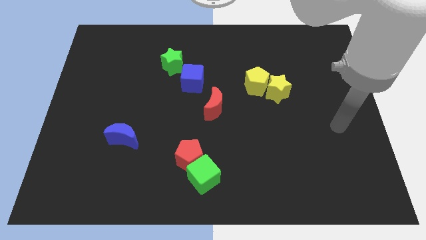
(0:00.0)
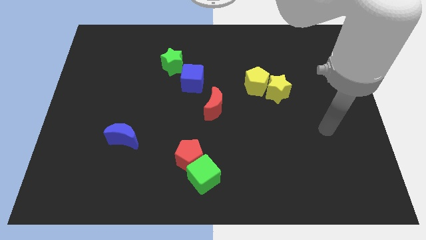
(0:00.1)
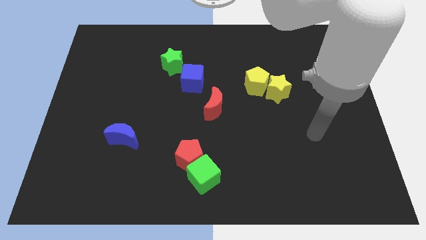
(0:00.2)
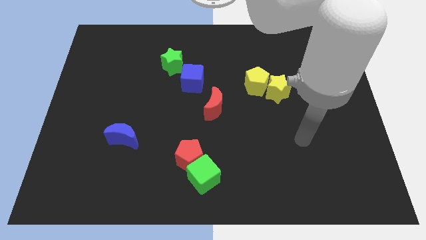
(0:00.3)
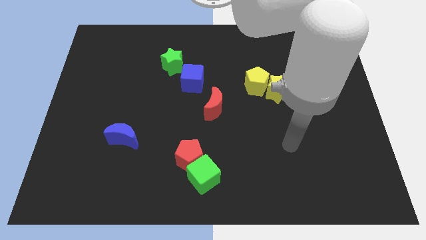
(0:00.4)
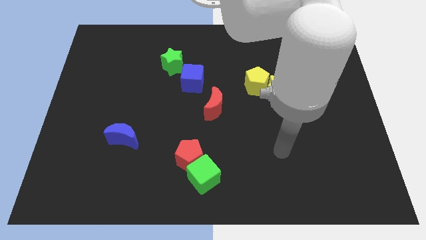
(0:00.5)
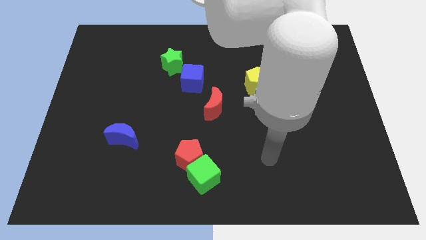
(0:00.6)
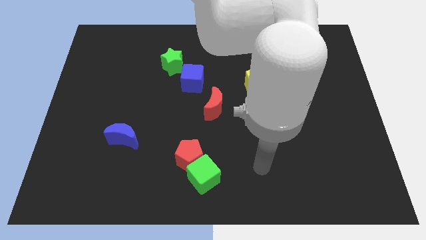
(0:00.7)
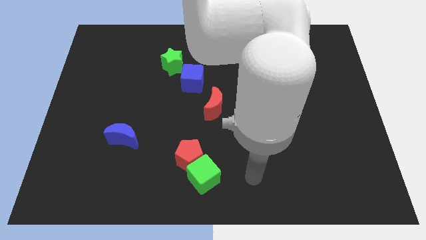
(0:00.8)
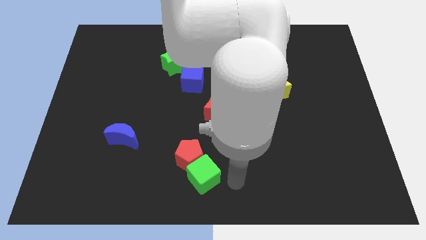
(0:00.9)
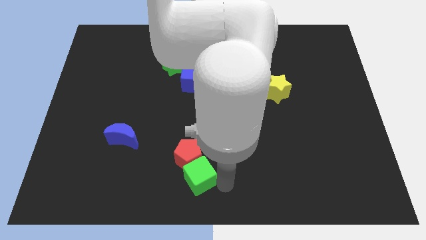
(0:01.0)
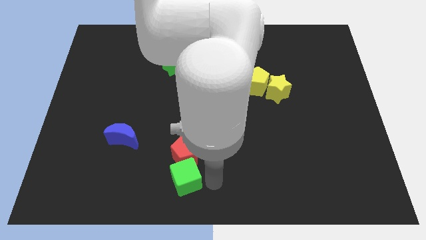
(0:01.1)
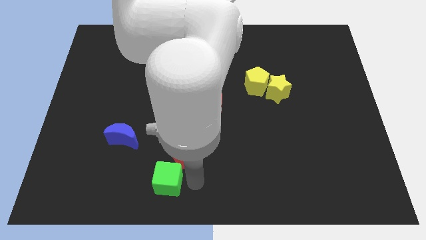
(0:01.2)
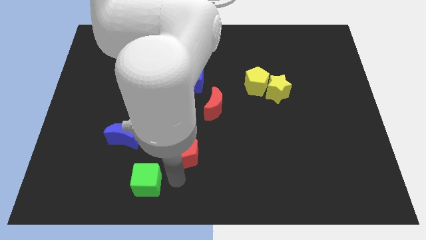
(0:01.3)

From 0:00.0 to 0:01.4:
separate the red pentagon from the green cube

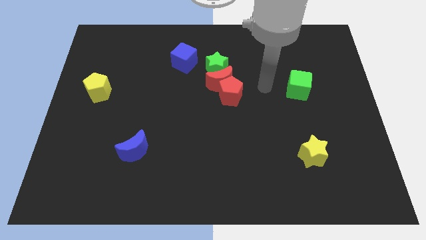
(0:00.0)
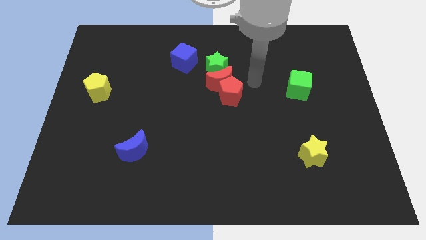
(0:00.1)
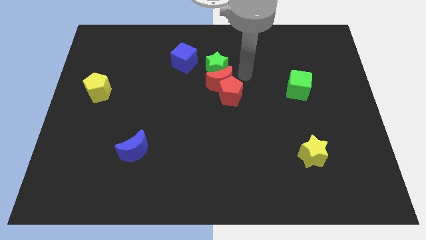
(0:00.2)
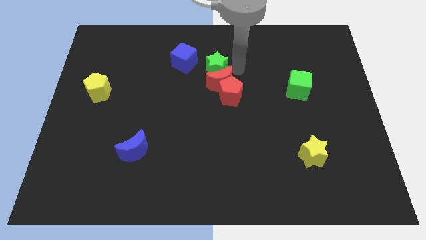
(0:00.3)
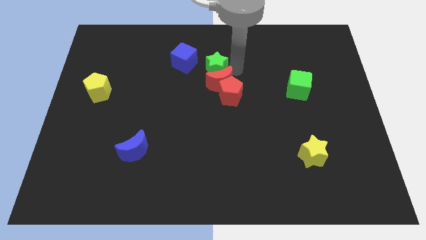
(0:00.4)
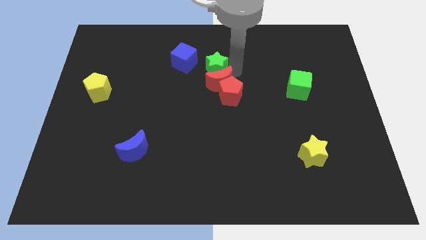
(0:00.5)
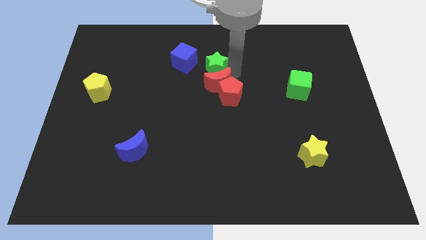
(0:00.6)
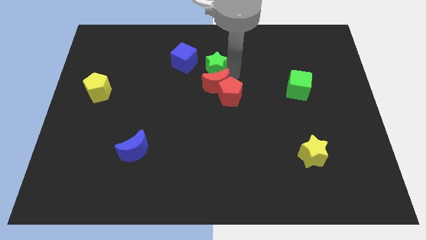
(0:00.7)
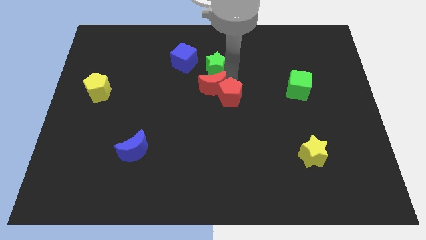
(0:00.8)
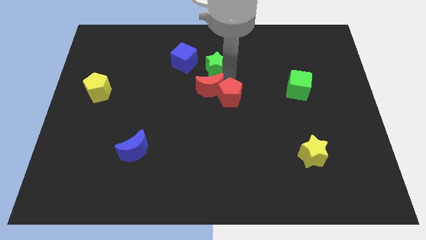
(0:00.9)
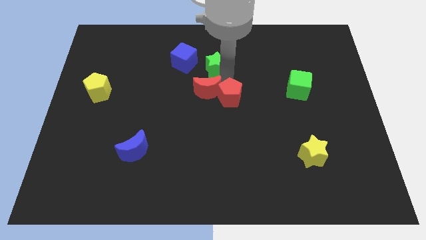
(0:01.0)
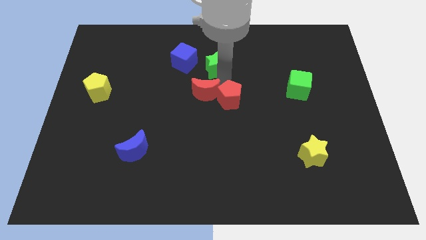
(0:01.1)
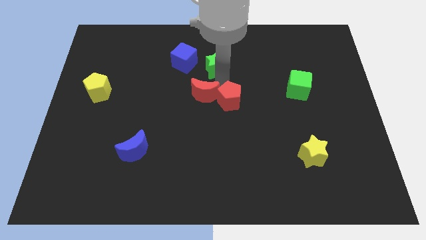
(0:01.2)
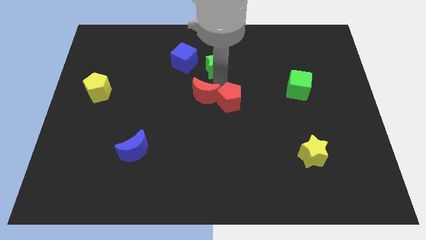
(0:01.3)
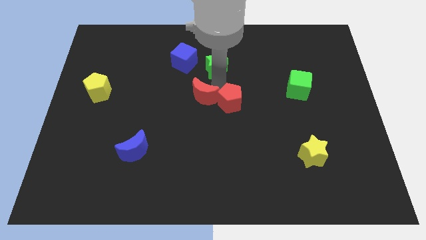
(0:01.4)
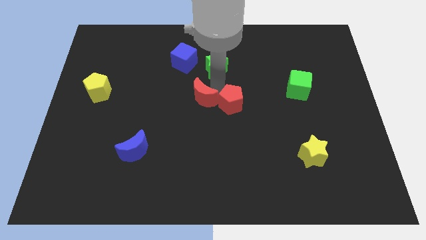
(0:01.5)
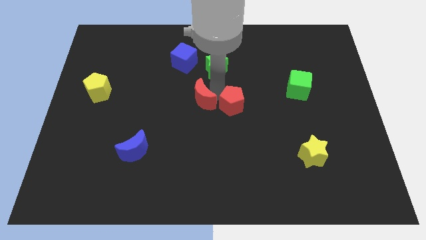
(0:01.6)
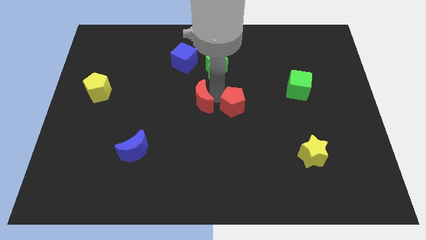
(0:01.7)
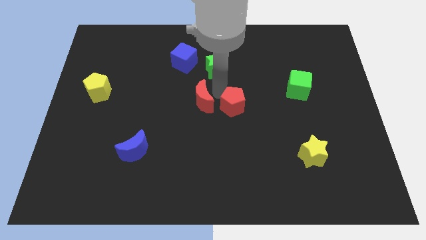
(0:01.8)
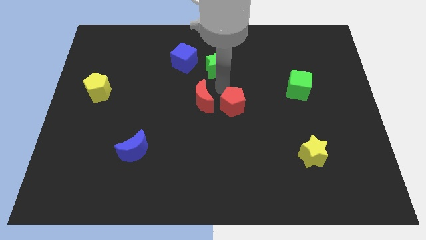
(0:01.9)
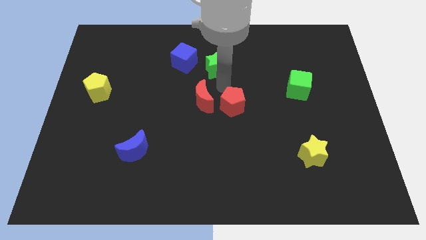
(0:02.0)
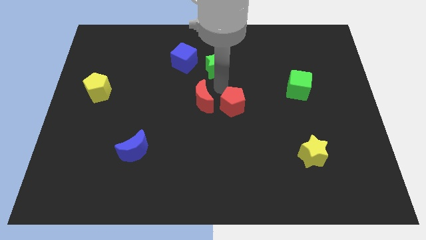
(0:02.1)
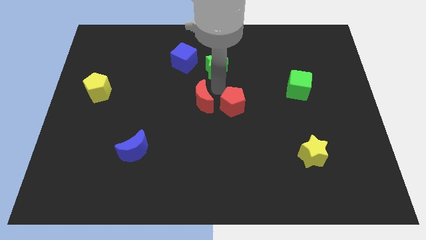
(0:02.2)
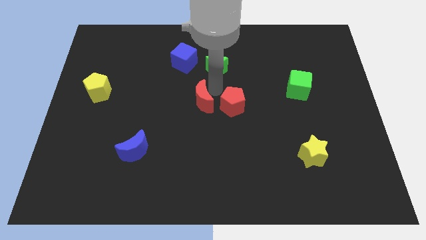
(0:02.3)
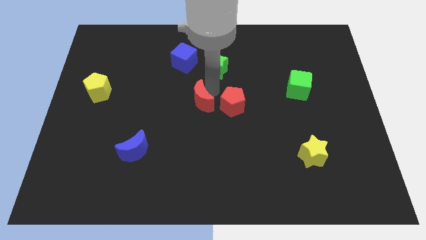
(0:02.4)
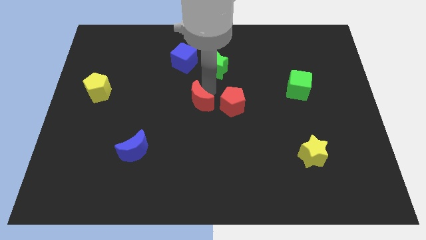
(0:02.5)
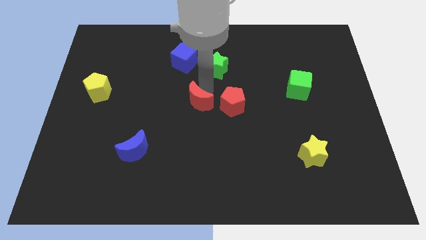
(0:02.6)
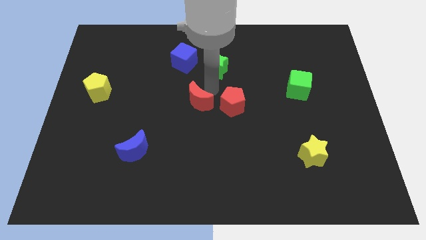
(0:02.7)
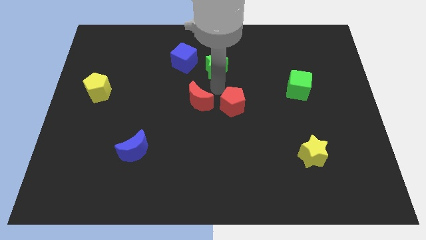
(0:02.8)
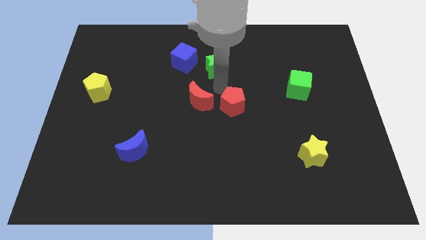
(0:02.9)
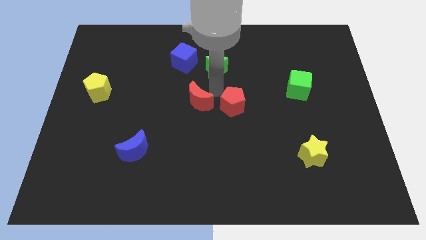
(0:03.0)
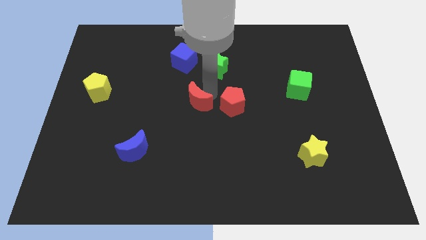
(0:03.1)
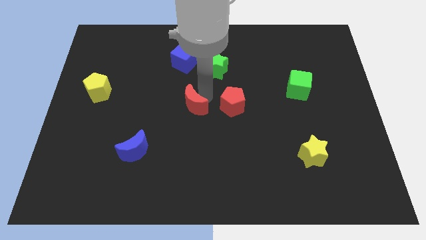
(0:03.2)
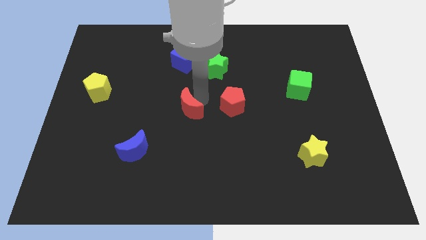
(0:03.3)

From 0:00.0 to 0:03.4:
pull the red moon apart from the red pentagon and green star

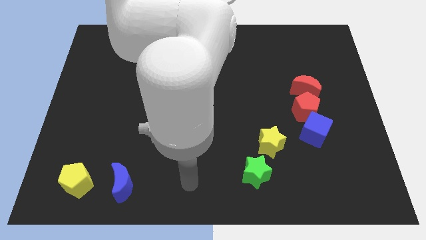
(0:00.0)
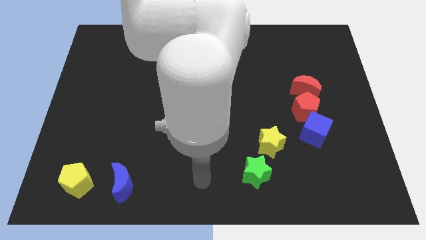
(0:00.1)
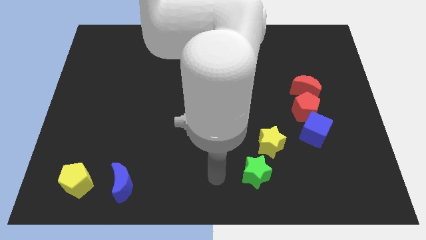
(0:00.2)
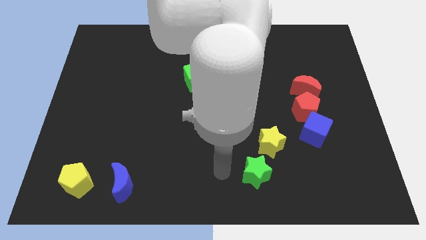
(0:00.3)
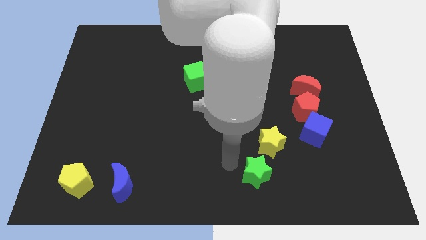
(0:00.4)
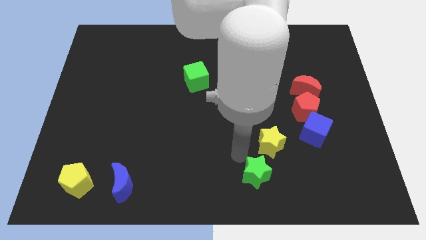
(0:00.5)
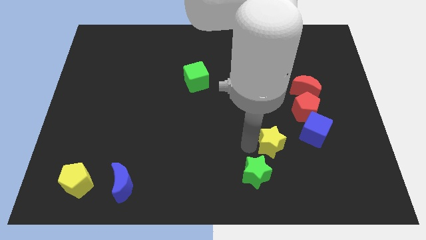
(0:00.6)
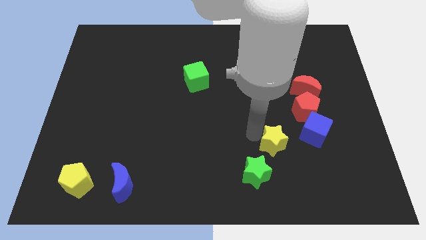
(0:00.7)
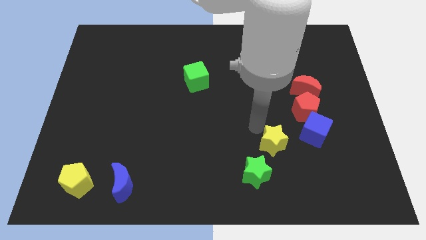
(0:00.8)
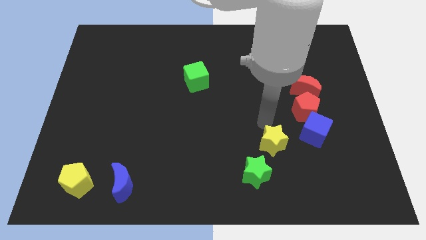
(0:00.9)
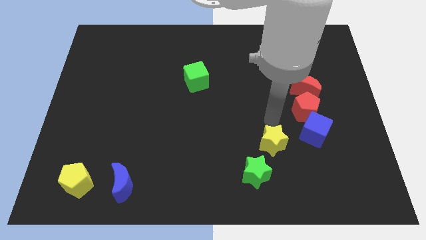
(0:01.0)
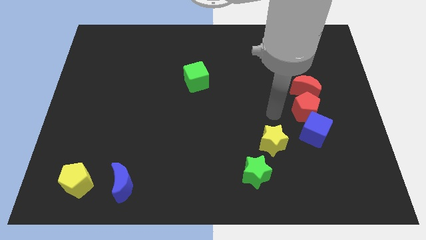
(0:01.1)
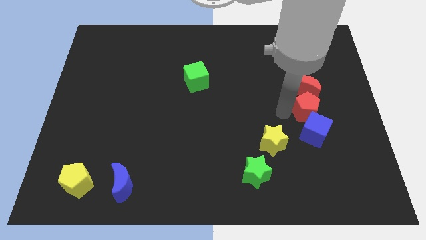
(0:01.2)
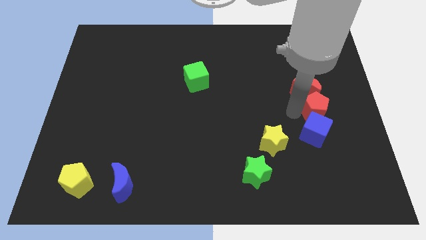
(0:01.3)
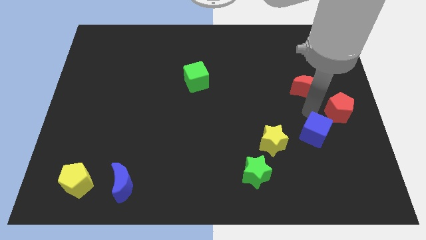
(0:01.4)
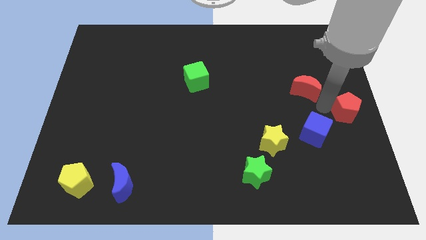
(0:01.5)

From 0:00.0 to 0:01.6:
pull the red moon apart from the red pentagon

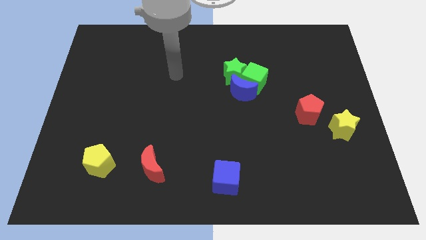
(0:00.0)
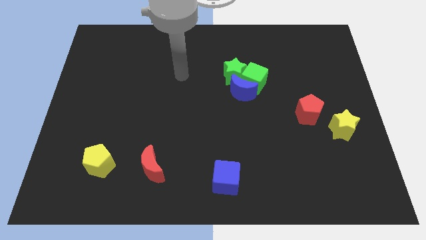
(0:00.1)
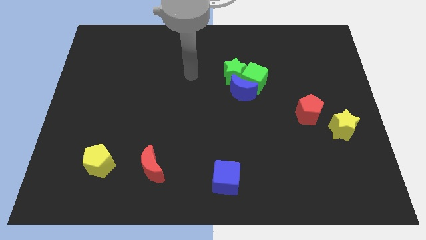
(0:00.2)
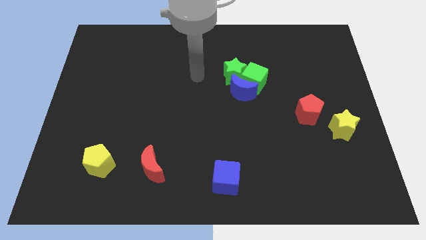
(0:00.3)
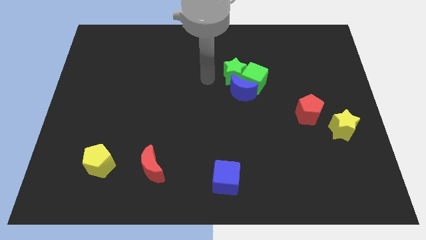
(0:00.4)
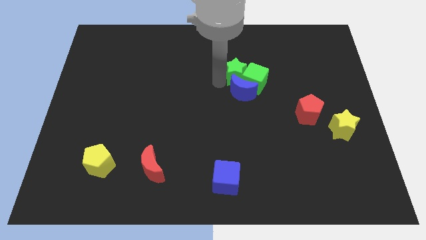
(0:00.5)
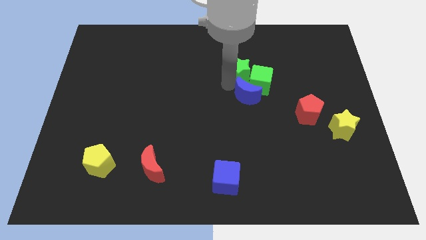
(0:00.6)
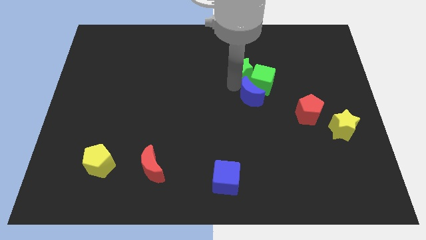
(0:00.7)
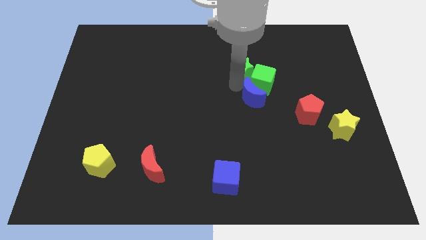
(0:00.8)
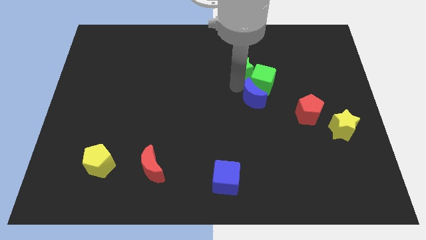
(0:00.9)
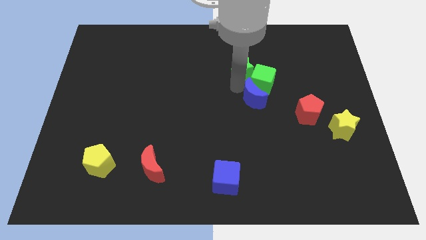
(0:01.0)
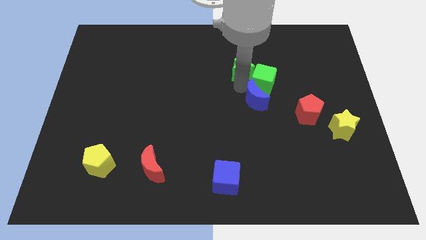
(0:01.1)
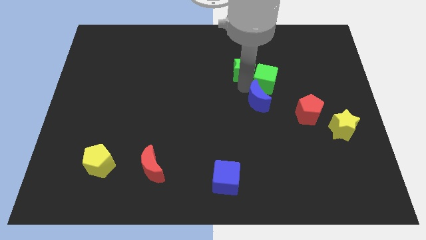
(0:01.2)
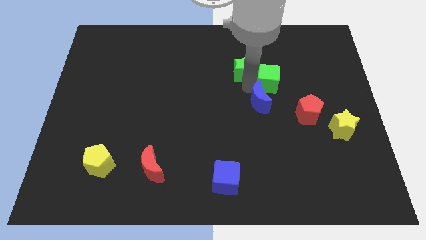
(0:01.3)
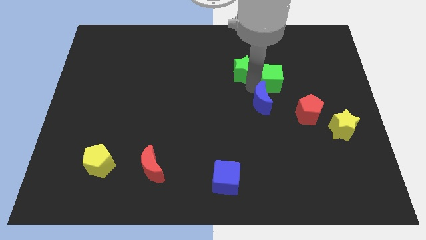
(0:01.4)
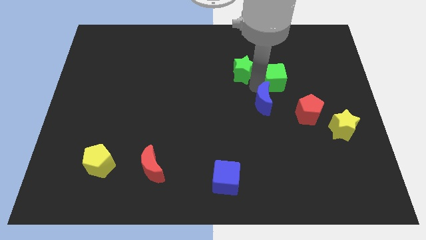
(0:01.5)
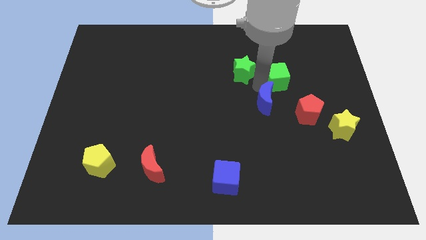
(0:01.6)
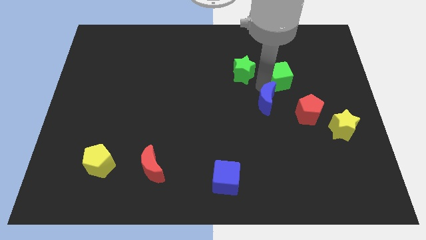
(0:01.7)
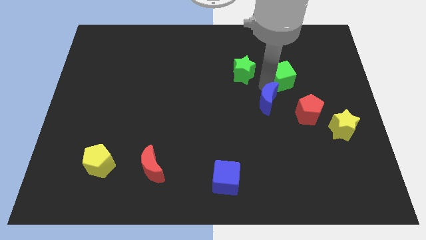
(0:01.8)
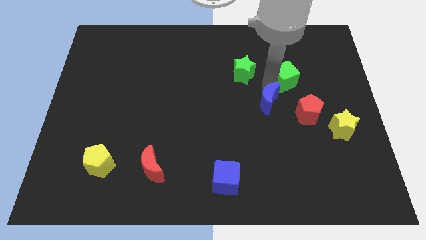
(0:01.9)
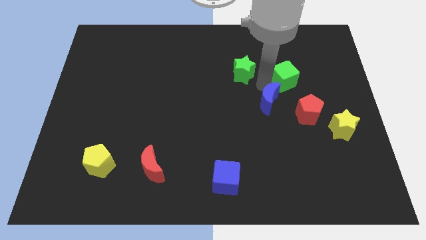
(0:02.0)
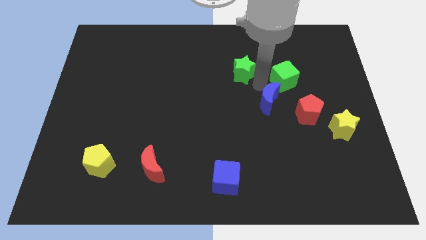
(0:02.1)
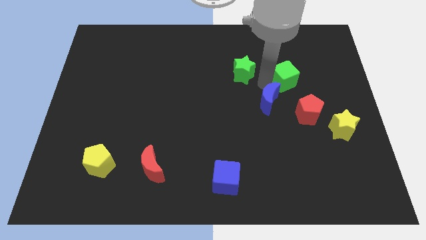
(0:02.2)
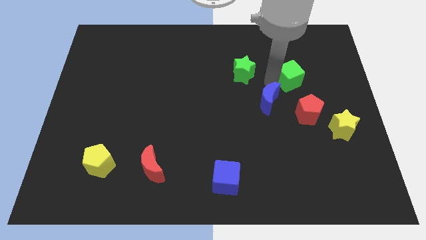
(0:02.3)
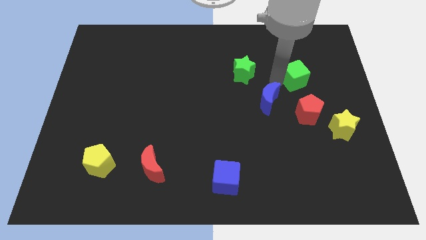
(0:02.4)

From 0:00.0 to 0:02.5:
move the green cube away from the blue moon and green star

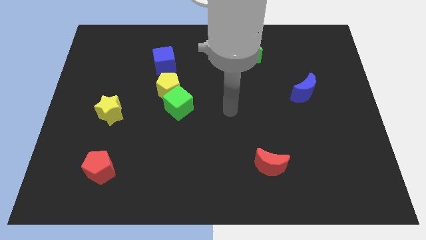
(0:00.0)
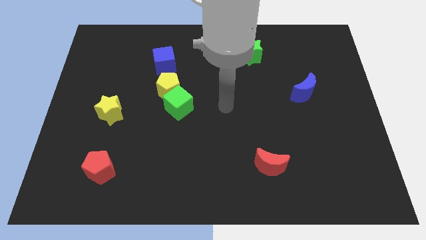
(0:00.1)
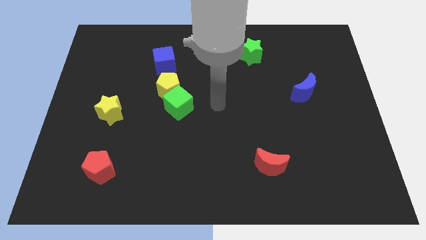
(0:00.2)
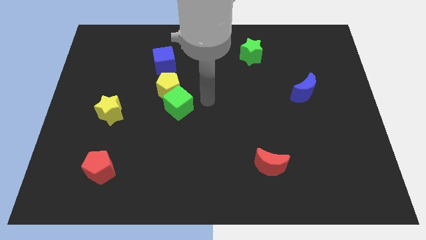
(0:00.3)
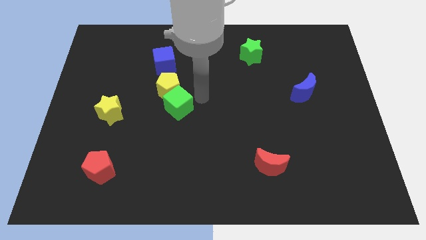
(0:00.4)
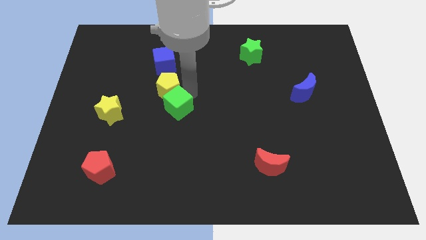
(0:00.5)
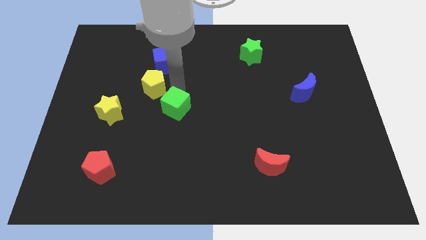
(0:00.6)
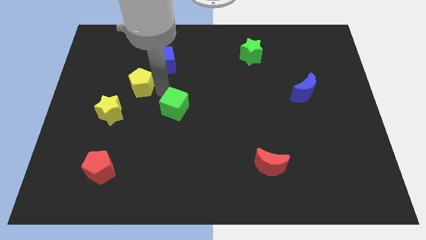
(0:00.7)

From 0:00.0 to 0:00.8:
separate the green cube from the yellow pentagon
